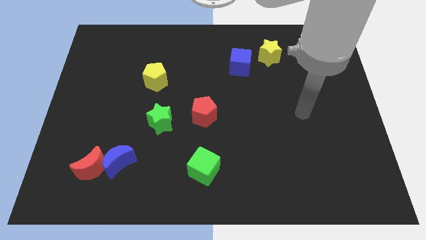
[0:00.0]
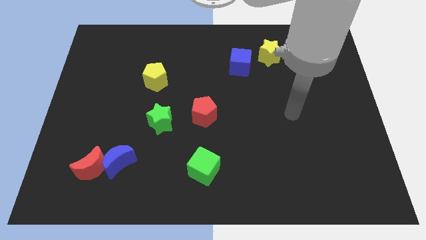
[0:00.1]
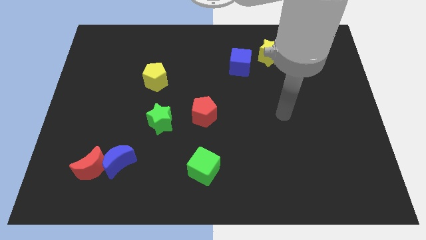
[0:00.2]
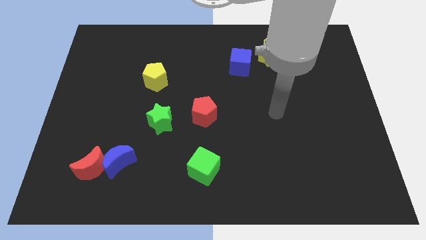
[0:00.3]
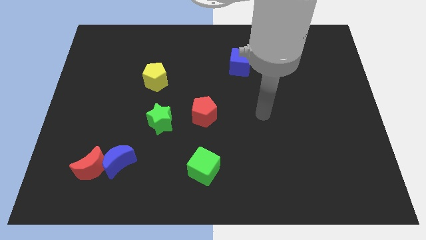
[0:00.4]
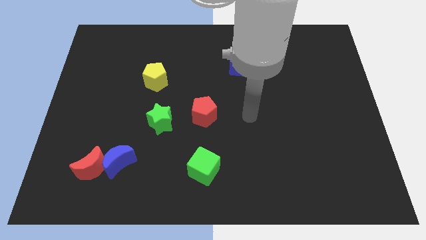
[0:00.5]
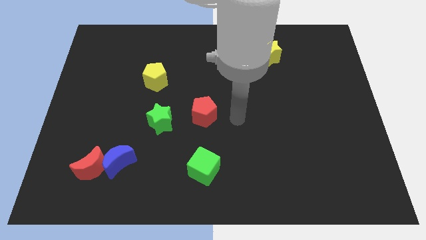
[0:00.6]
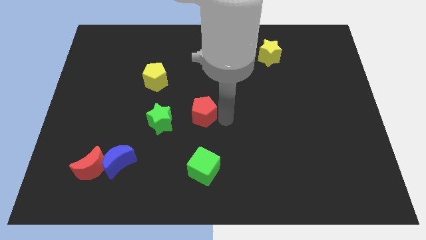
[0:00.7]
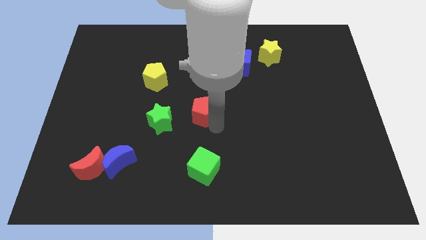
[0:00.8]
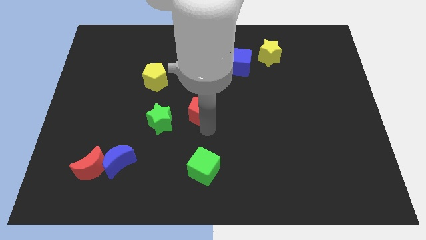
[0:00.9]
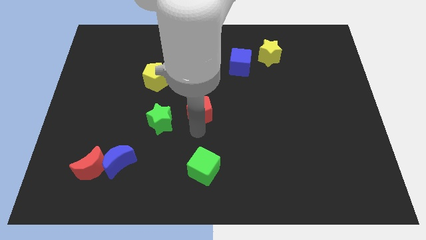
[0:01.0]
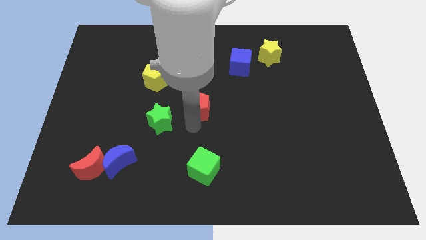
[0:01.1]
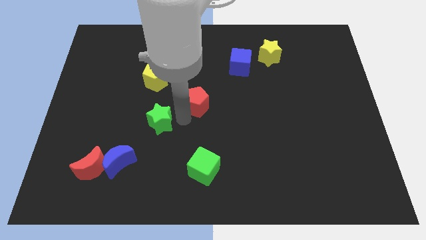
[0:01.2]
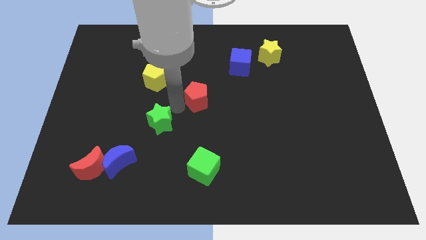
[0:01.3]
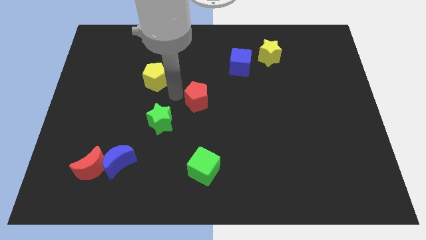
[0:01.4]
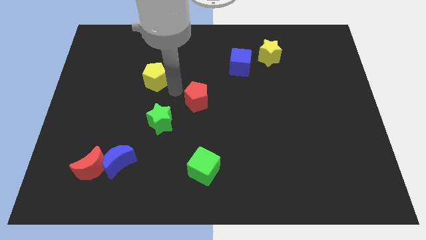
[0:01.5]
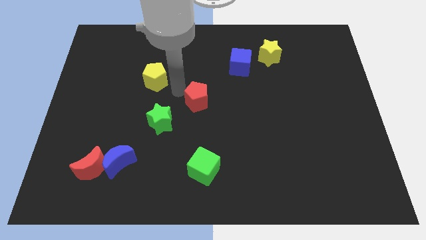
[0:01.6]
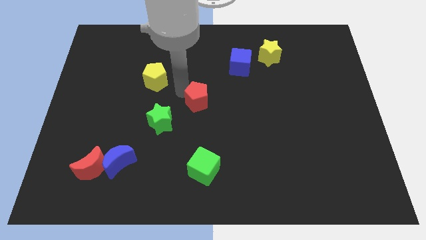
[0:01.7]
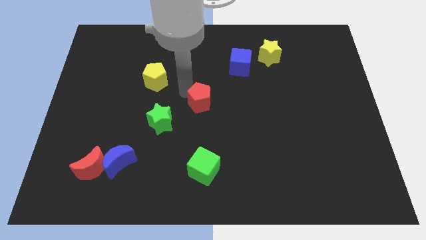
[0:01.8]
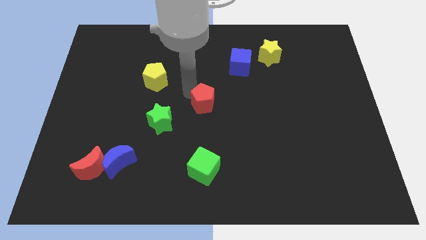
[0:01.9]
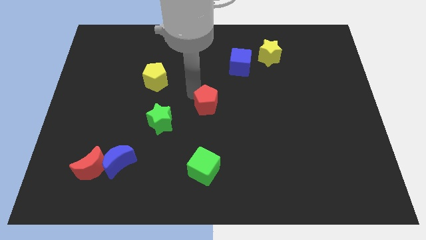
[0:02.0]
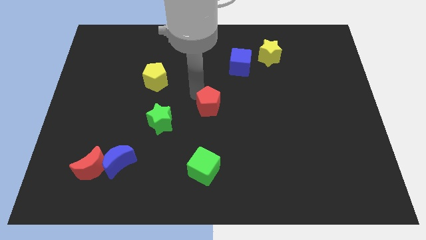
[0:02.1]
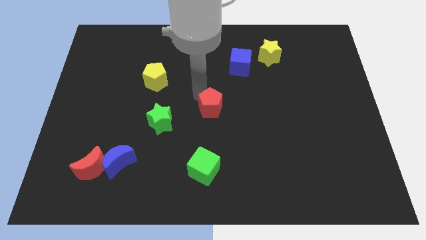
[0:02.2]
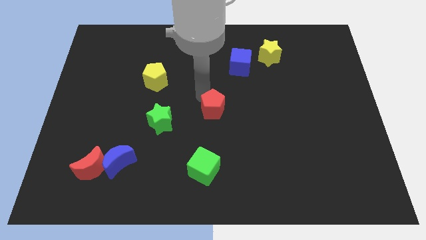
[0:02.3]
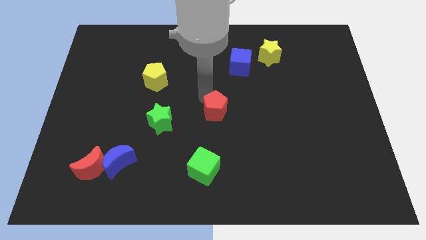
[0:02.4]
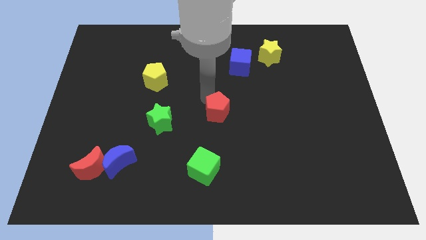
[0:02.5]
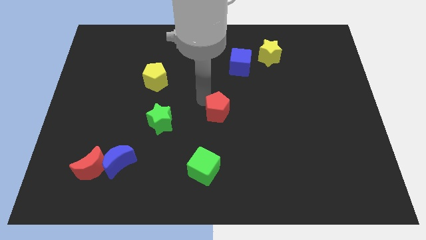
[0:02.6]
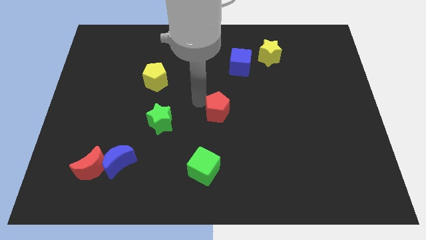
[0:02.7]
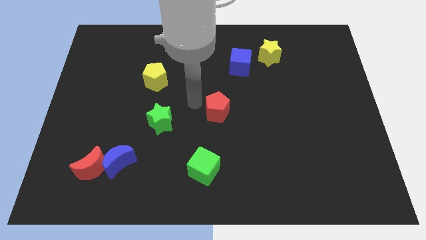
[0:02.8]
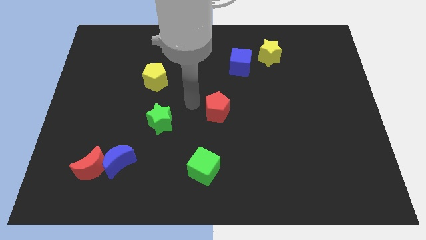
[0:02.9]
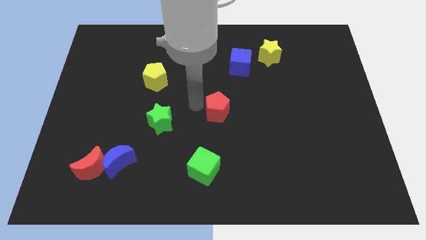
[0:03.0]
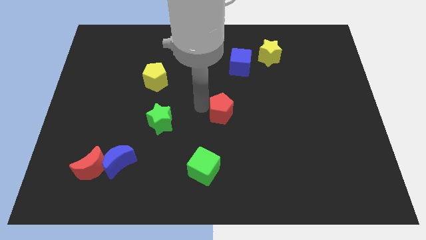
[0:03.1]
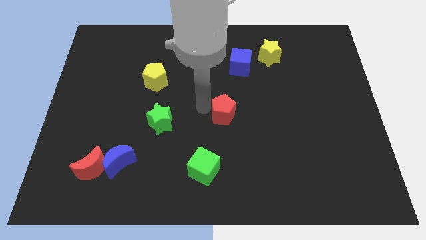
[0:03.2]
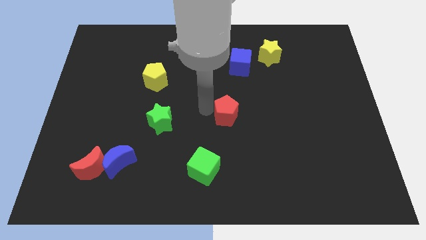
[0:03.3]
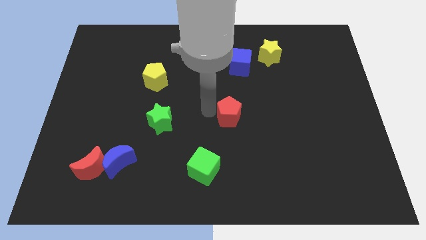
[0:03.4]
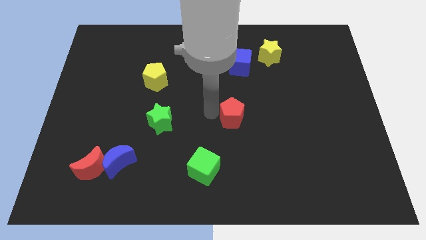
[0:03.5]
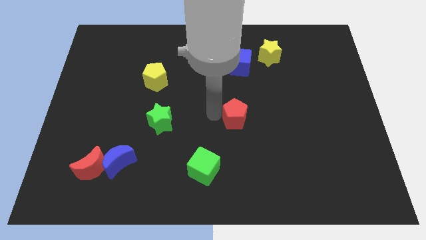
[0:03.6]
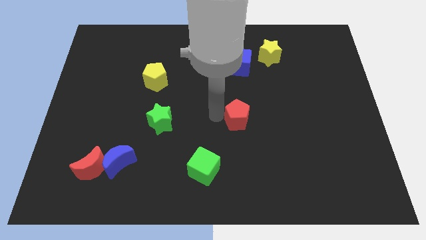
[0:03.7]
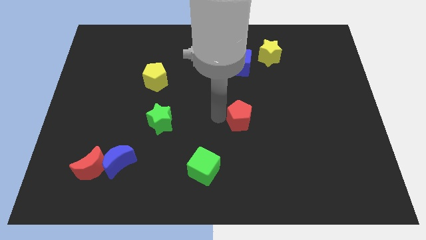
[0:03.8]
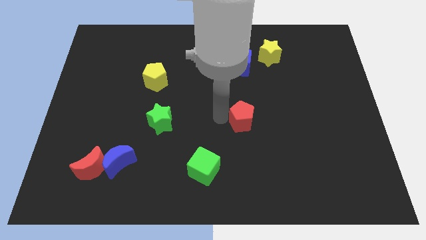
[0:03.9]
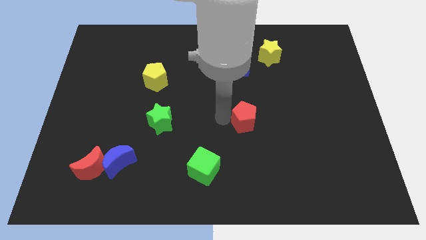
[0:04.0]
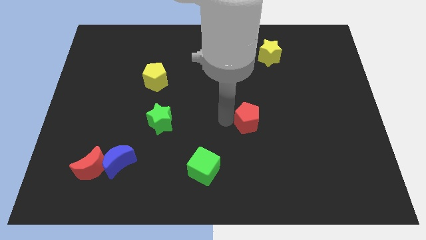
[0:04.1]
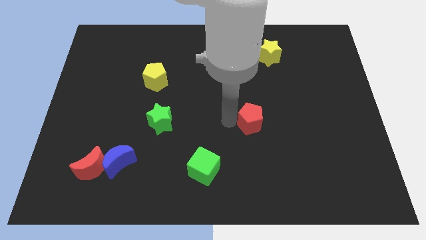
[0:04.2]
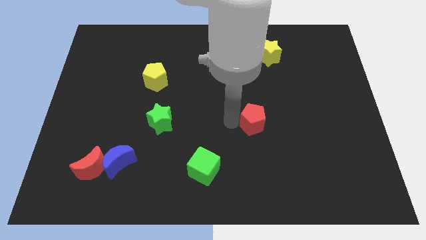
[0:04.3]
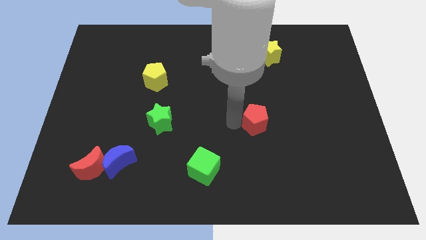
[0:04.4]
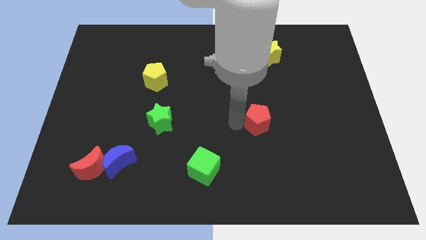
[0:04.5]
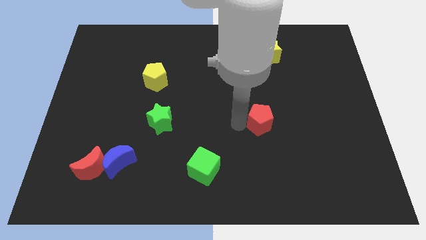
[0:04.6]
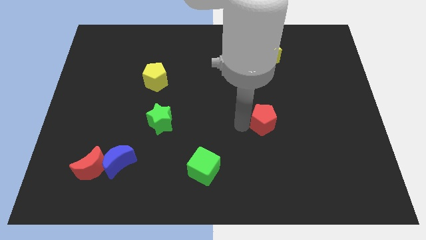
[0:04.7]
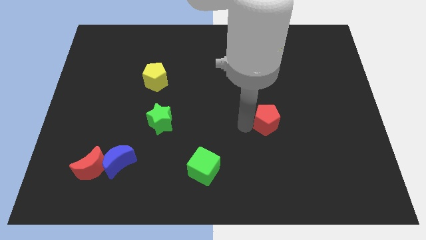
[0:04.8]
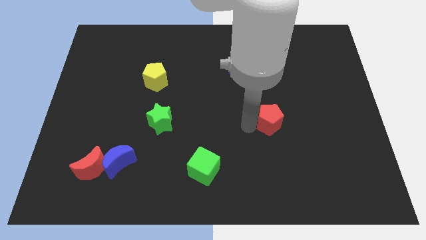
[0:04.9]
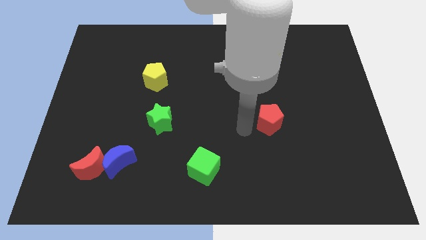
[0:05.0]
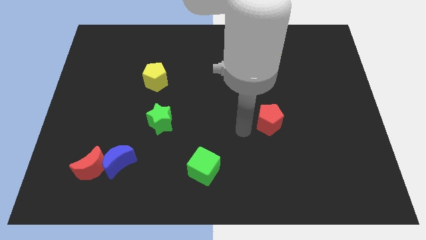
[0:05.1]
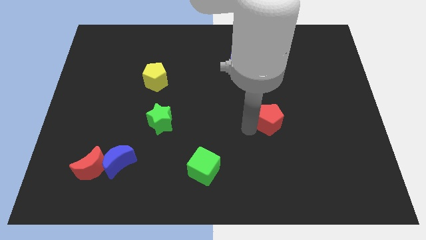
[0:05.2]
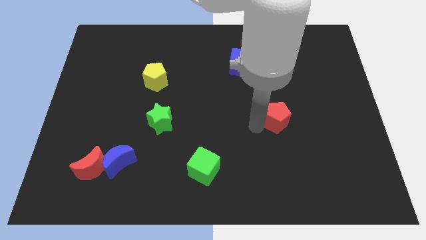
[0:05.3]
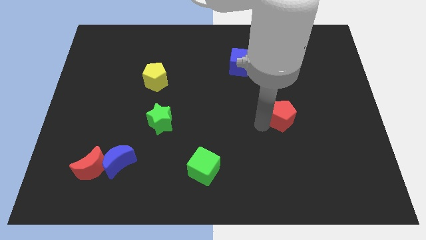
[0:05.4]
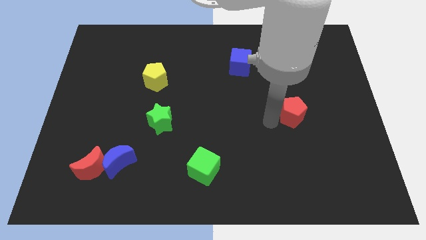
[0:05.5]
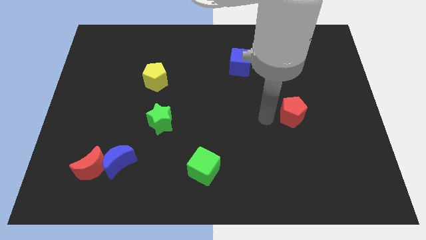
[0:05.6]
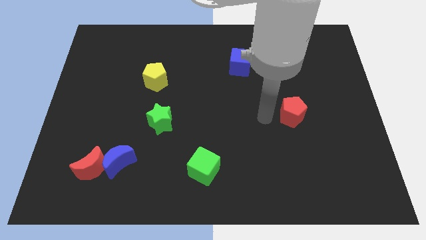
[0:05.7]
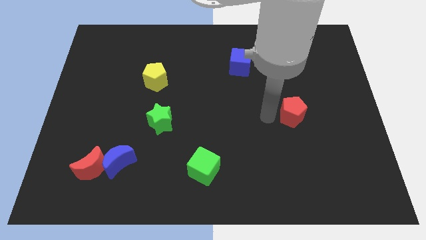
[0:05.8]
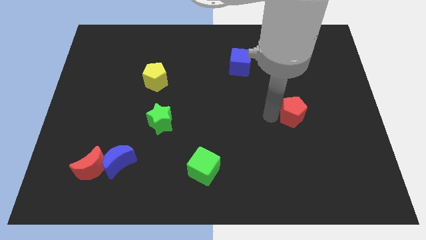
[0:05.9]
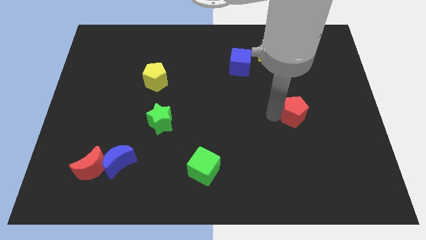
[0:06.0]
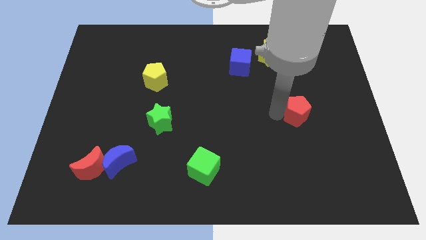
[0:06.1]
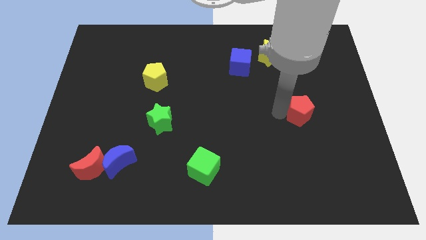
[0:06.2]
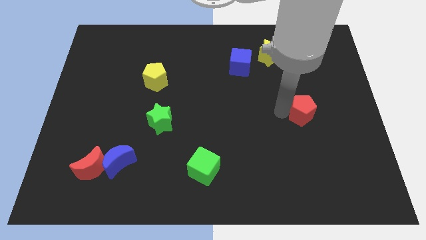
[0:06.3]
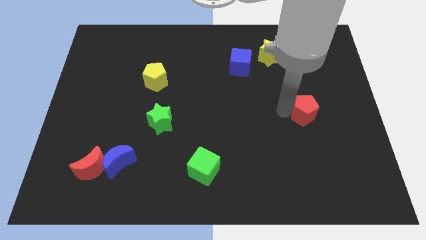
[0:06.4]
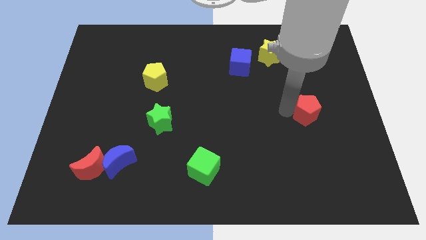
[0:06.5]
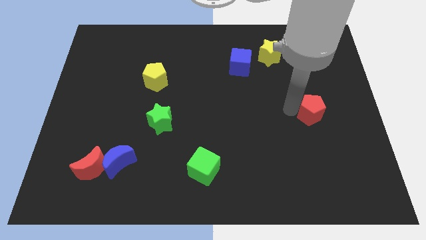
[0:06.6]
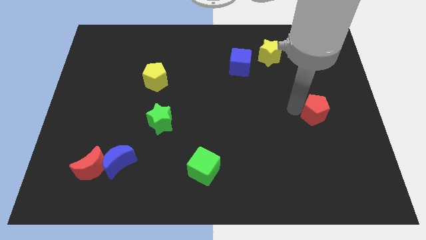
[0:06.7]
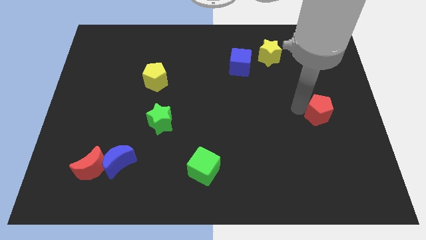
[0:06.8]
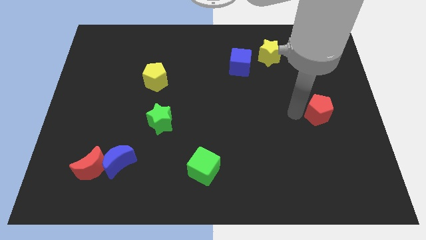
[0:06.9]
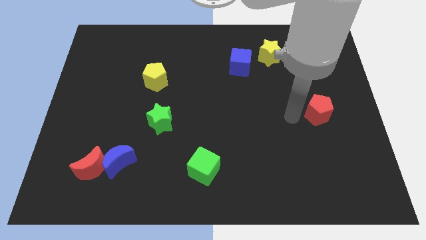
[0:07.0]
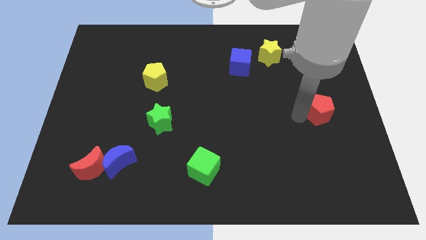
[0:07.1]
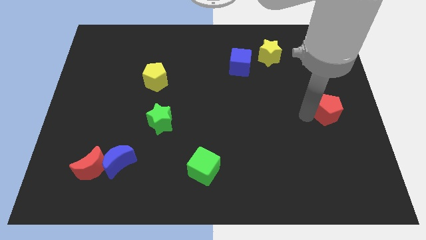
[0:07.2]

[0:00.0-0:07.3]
put the red pentagon to the right side of the board
